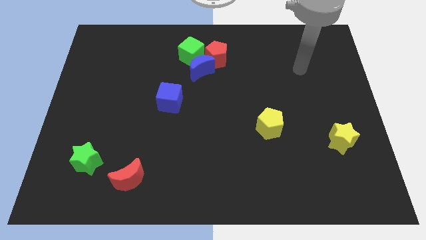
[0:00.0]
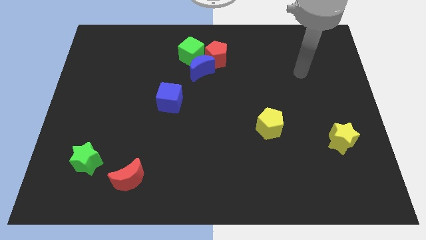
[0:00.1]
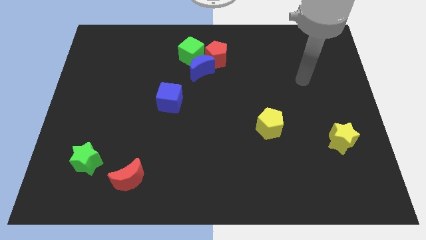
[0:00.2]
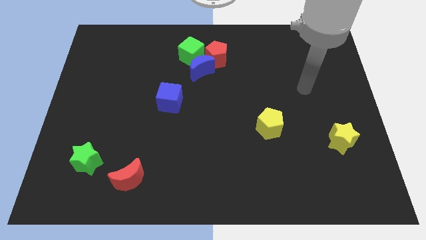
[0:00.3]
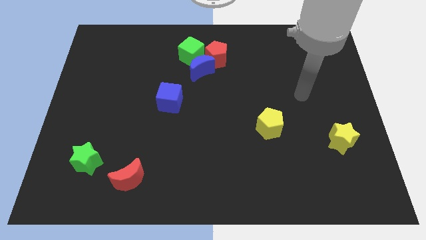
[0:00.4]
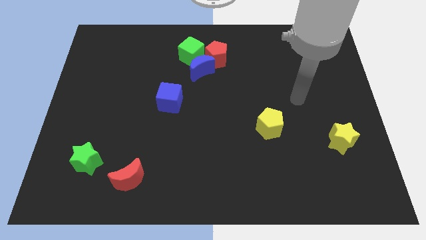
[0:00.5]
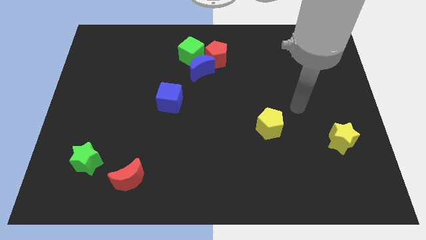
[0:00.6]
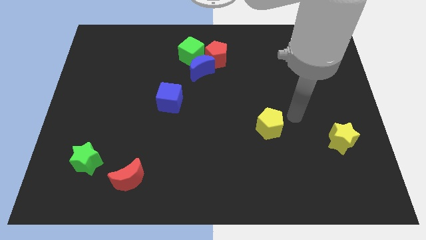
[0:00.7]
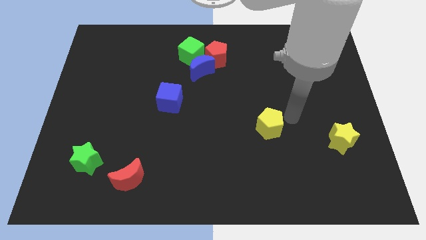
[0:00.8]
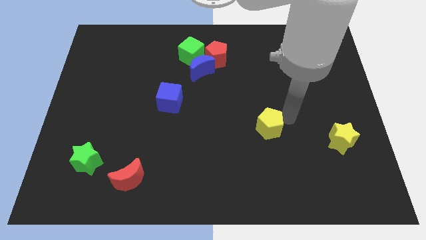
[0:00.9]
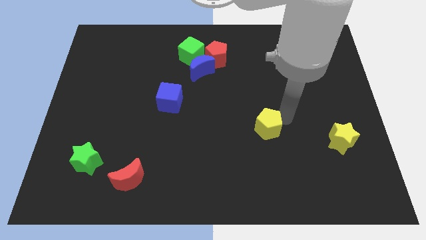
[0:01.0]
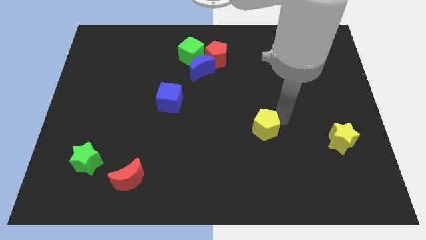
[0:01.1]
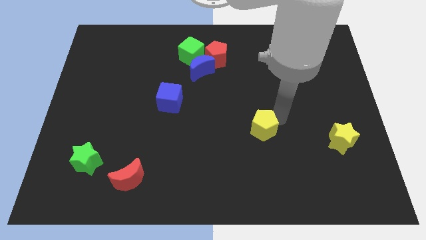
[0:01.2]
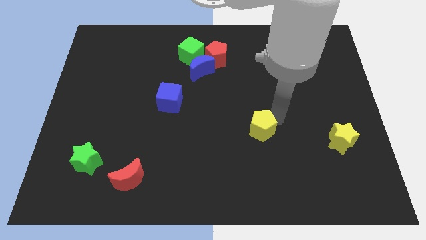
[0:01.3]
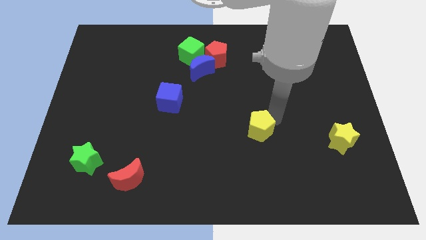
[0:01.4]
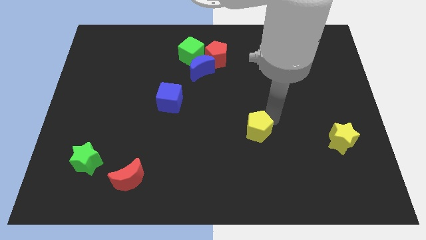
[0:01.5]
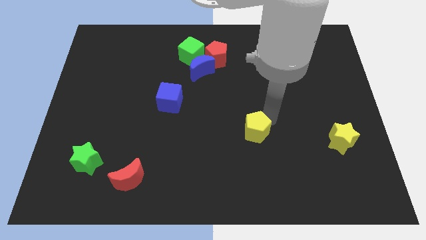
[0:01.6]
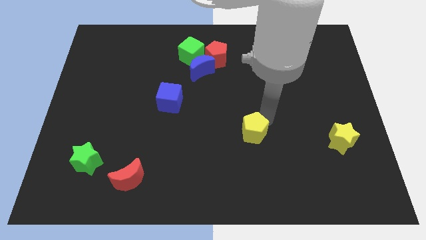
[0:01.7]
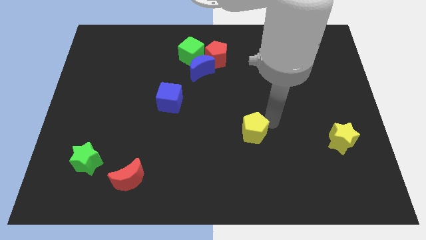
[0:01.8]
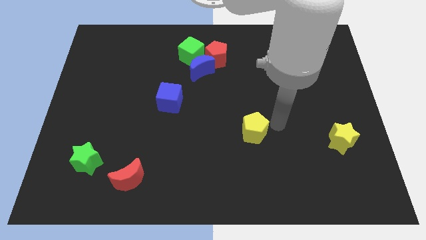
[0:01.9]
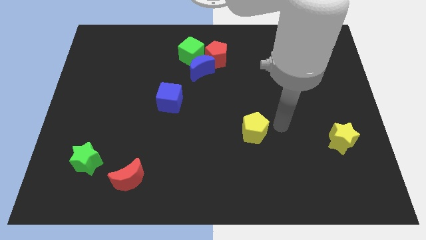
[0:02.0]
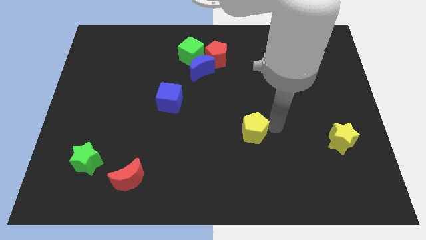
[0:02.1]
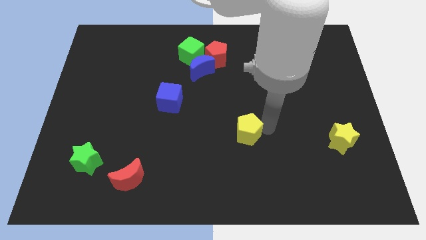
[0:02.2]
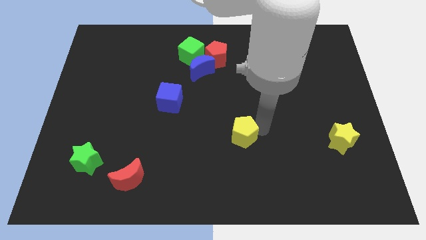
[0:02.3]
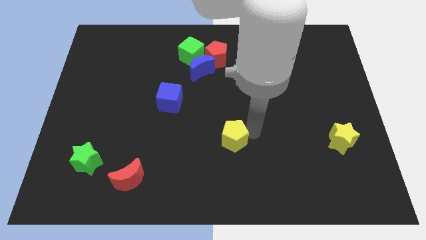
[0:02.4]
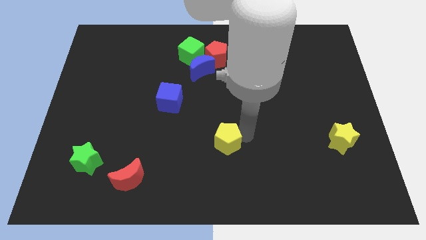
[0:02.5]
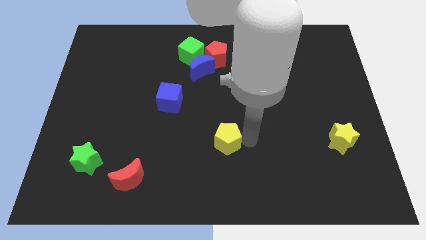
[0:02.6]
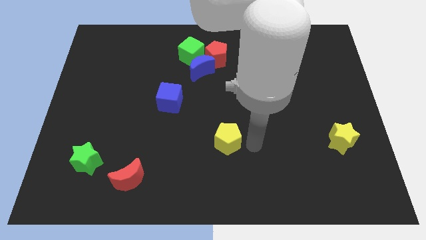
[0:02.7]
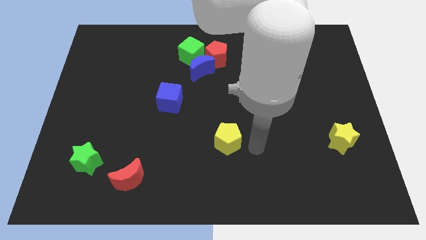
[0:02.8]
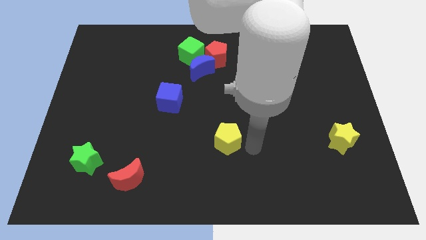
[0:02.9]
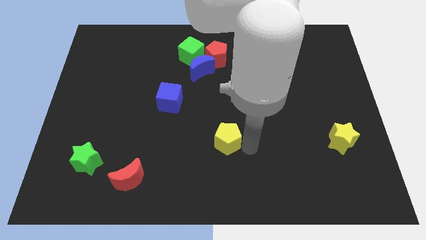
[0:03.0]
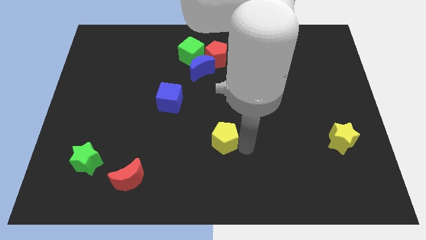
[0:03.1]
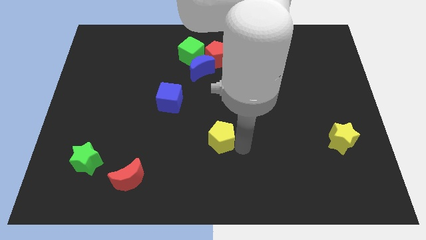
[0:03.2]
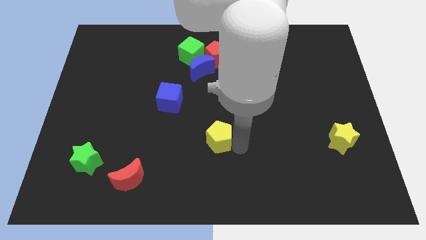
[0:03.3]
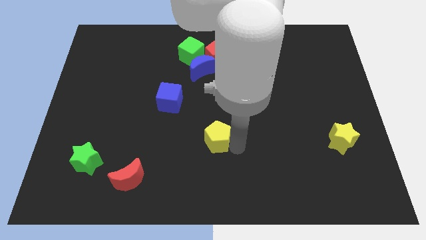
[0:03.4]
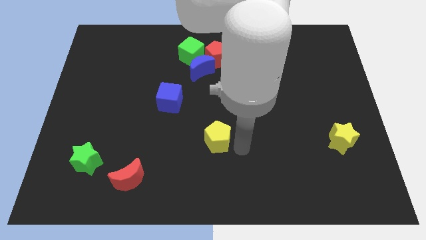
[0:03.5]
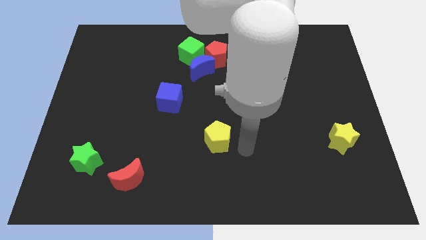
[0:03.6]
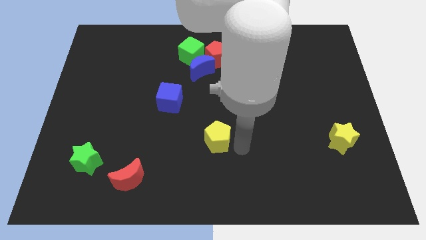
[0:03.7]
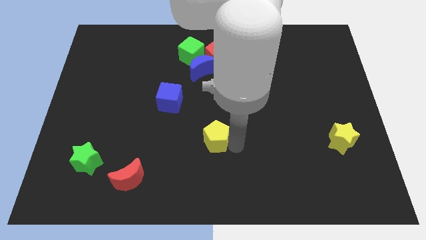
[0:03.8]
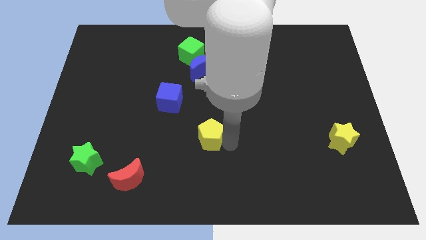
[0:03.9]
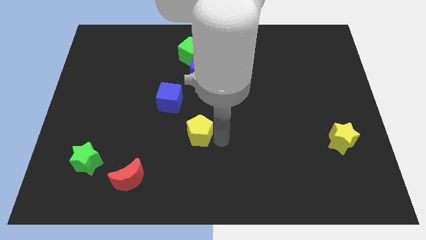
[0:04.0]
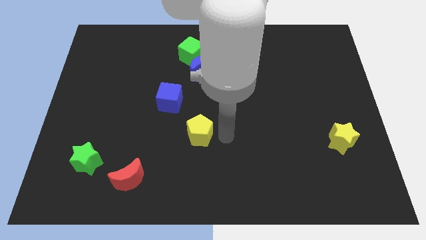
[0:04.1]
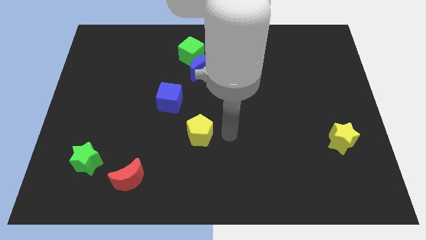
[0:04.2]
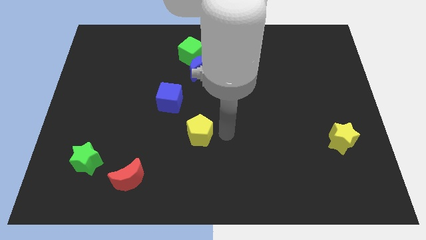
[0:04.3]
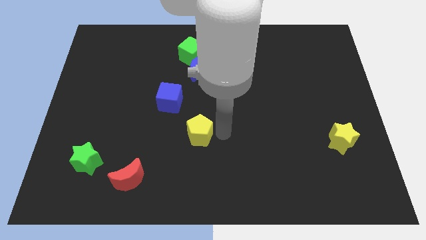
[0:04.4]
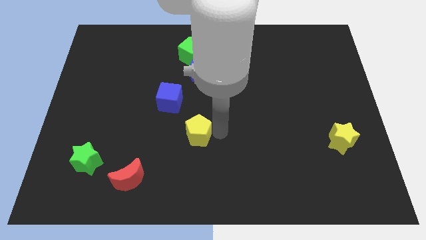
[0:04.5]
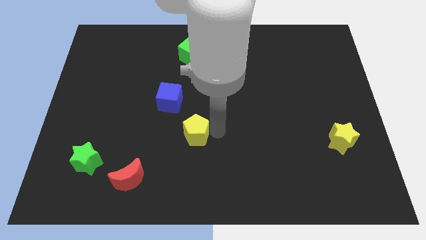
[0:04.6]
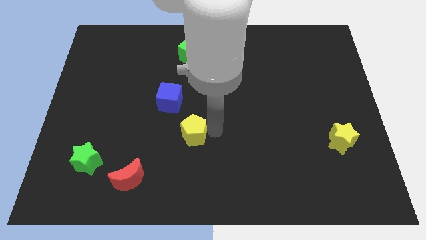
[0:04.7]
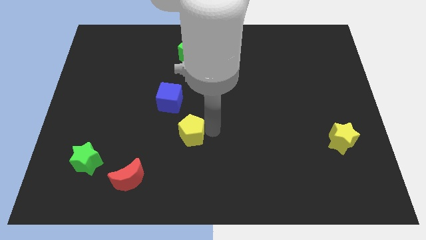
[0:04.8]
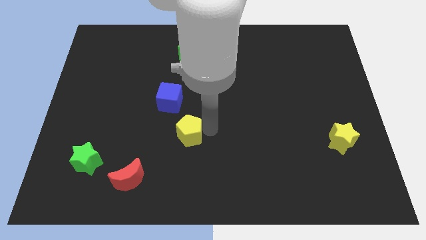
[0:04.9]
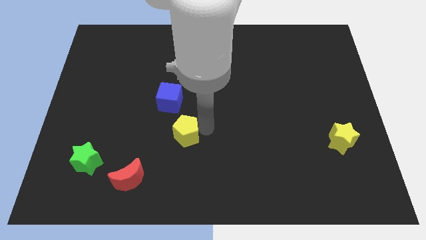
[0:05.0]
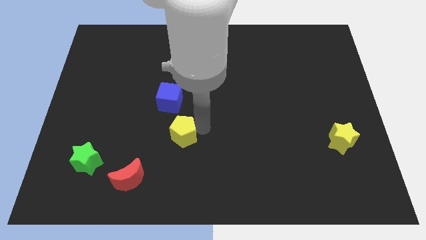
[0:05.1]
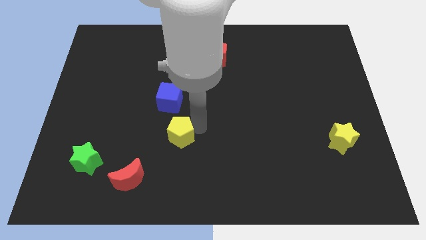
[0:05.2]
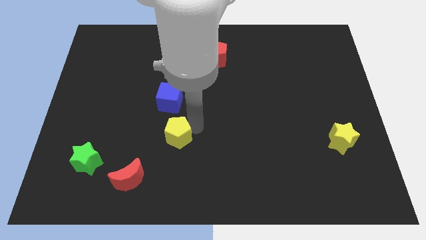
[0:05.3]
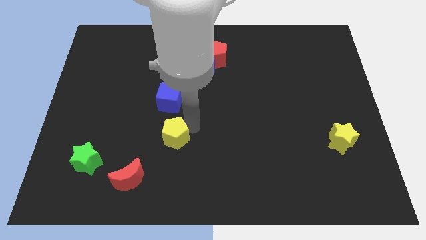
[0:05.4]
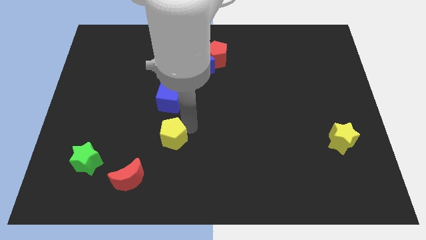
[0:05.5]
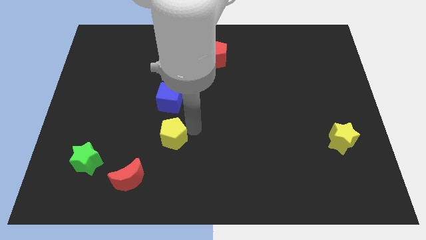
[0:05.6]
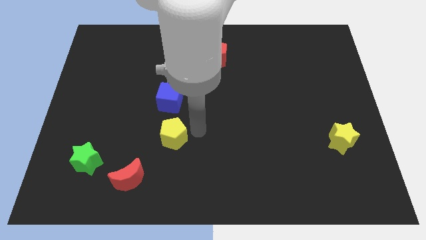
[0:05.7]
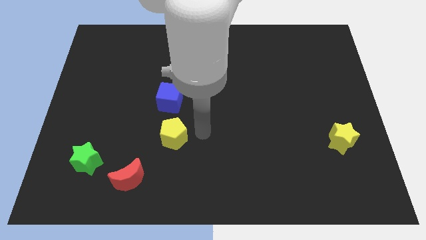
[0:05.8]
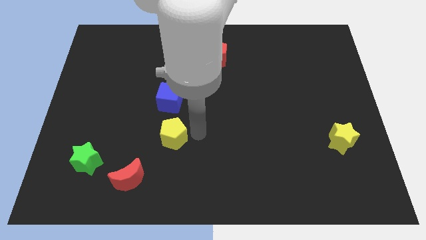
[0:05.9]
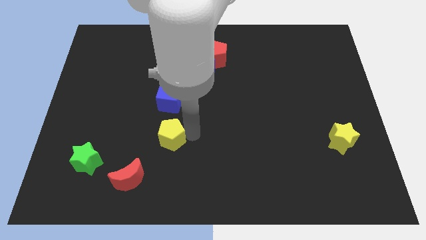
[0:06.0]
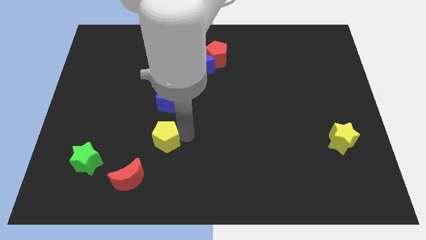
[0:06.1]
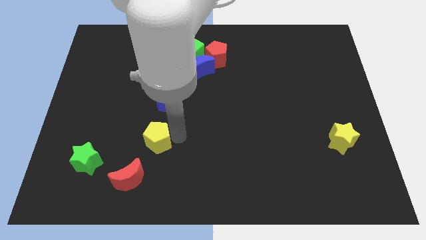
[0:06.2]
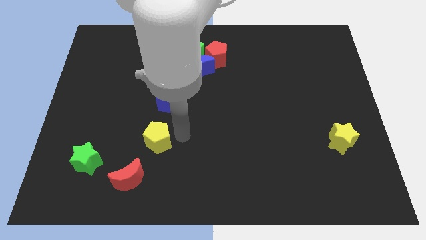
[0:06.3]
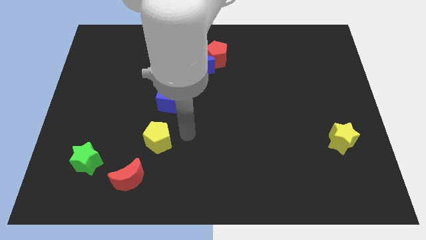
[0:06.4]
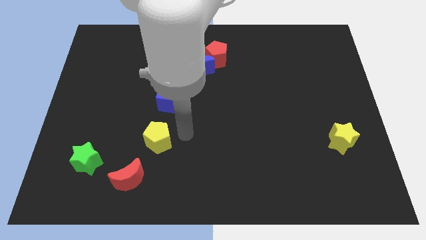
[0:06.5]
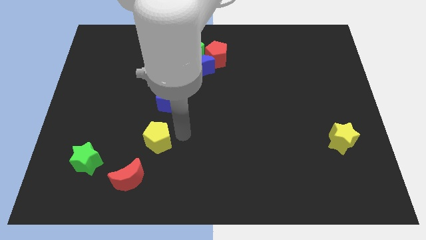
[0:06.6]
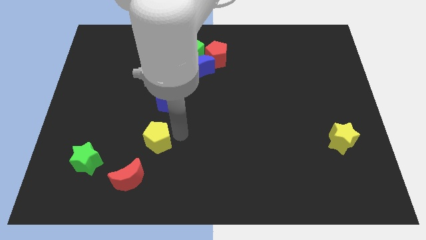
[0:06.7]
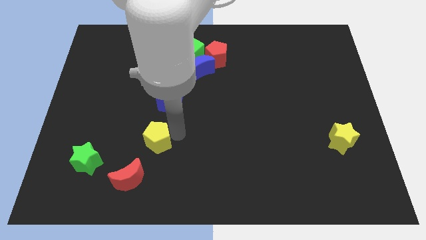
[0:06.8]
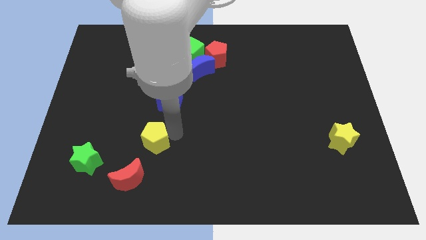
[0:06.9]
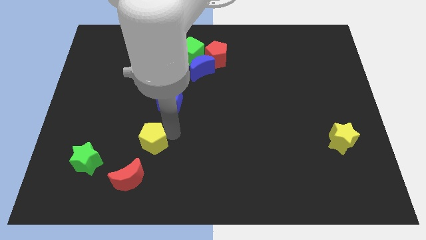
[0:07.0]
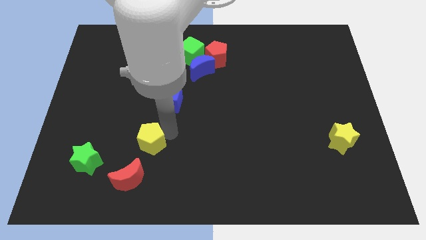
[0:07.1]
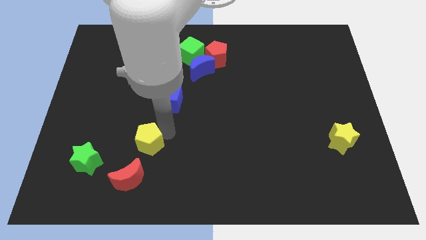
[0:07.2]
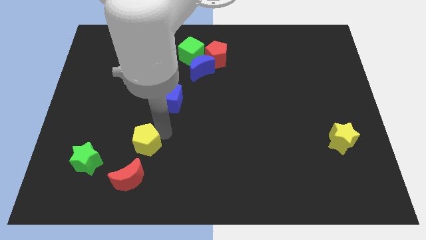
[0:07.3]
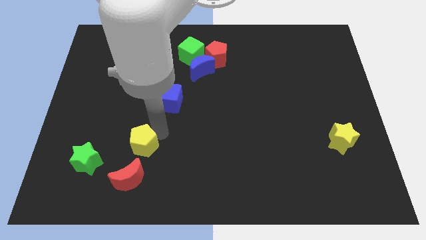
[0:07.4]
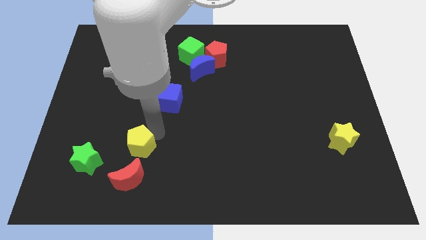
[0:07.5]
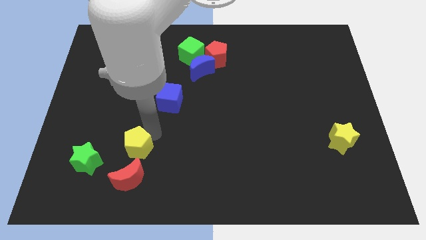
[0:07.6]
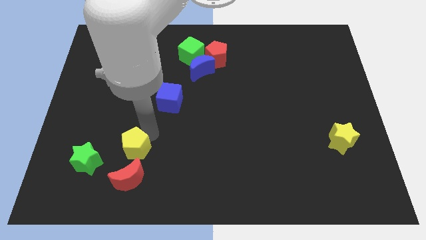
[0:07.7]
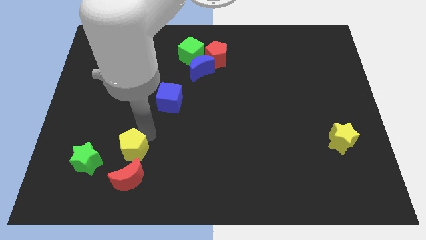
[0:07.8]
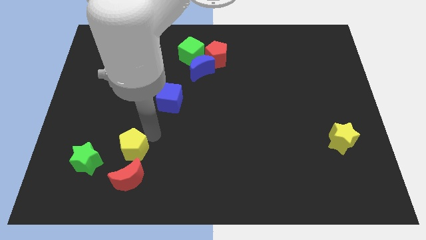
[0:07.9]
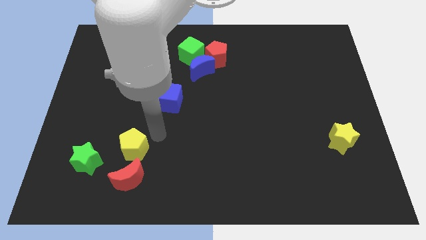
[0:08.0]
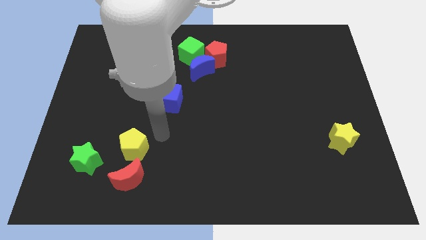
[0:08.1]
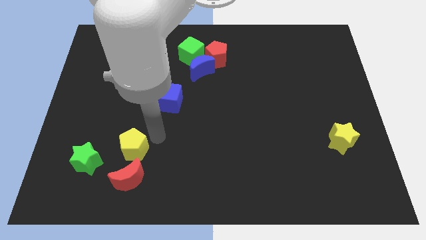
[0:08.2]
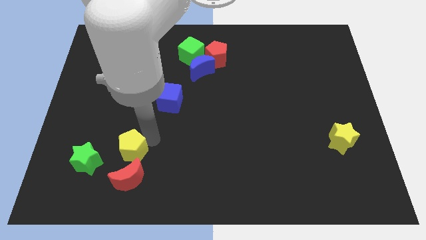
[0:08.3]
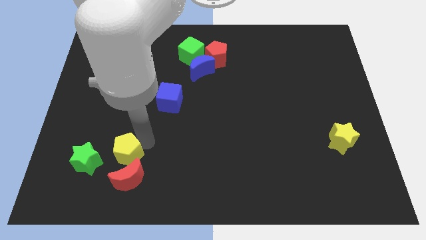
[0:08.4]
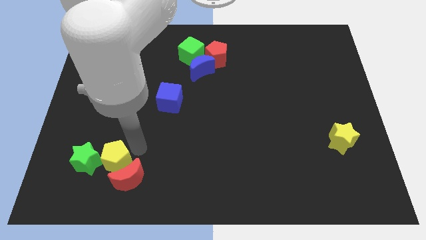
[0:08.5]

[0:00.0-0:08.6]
push the yellow pentagon towards the green star
